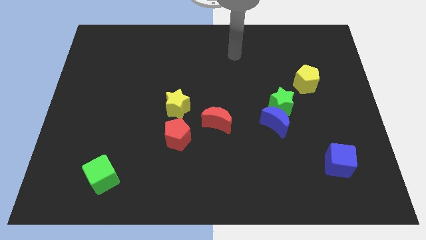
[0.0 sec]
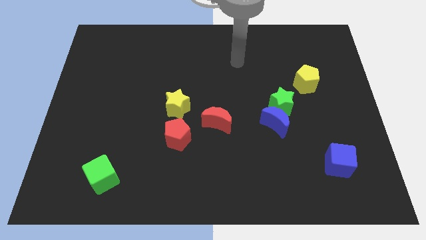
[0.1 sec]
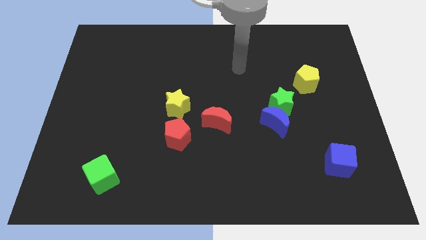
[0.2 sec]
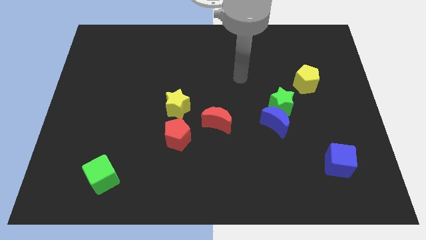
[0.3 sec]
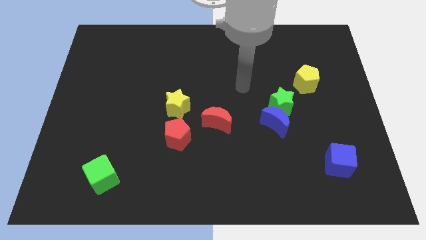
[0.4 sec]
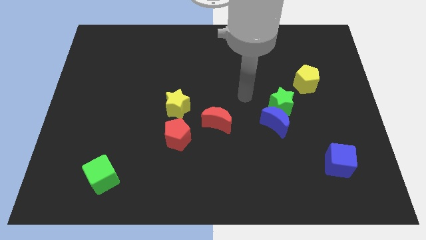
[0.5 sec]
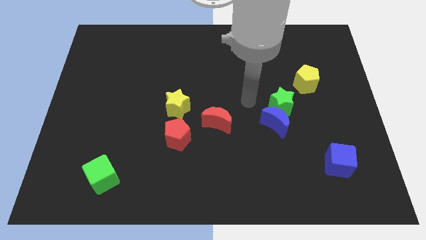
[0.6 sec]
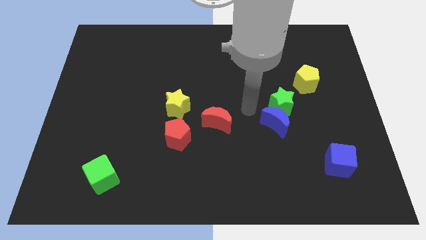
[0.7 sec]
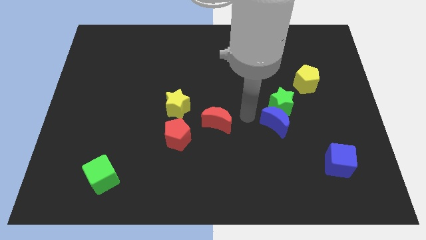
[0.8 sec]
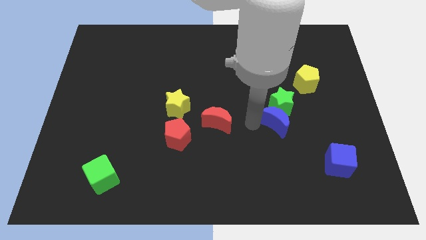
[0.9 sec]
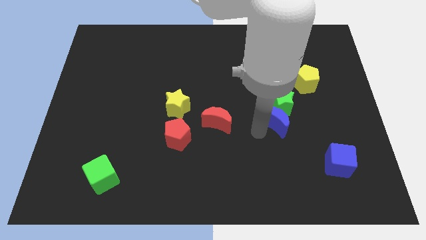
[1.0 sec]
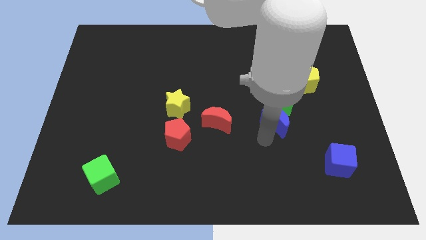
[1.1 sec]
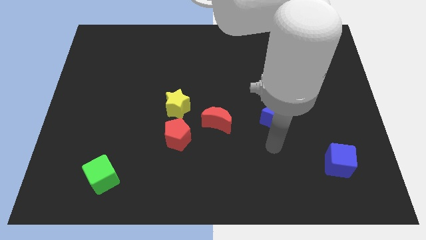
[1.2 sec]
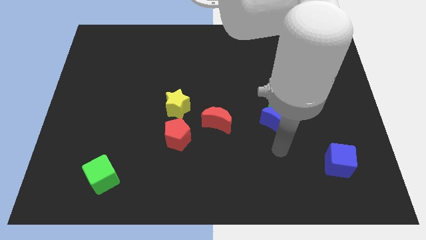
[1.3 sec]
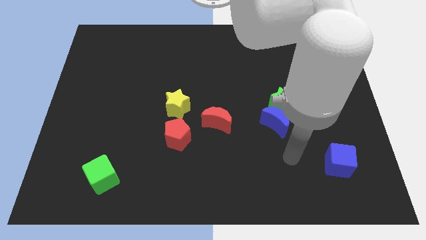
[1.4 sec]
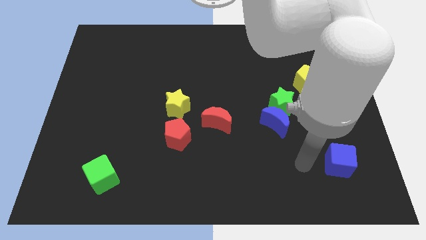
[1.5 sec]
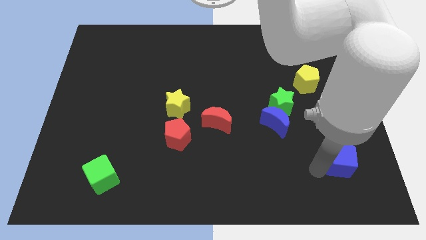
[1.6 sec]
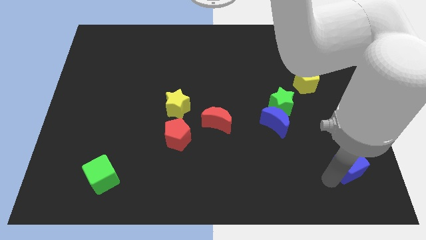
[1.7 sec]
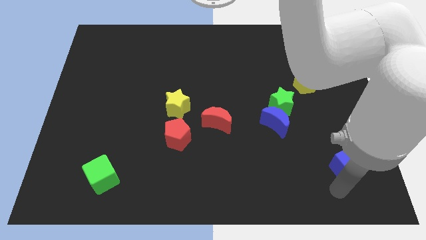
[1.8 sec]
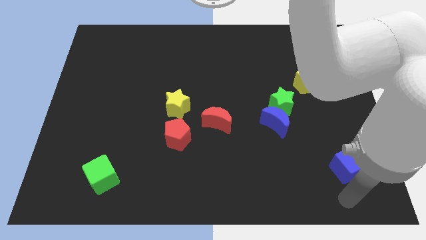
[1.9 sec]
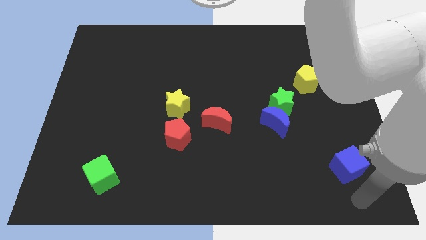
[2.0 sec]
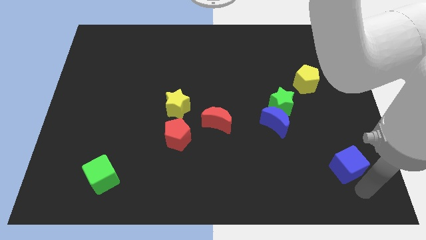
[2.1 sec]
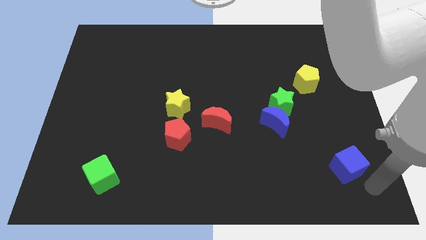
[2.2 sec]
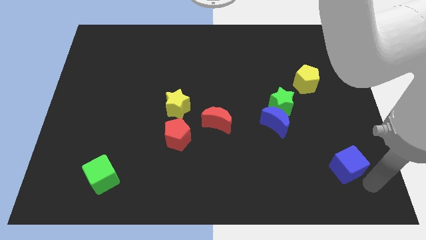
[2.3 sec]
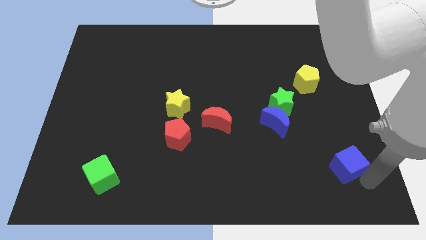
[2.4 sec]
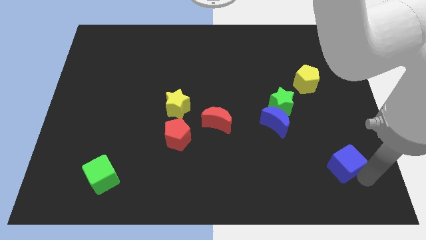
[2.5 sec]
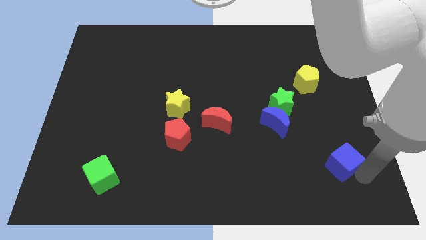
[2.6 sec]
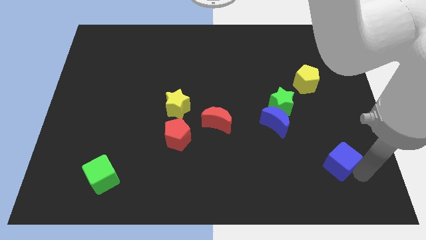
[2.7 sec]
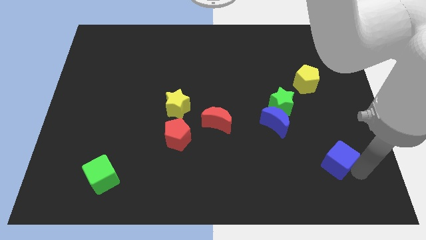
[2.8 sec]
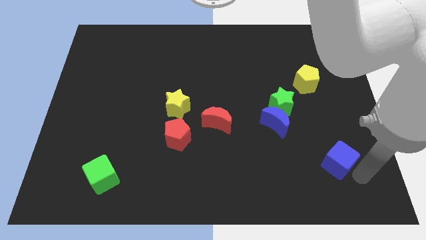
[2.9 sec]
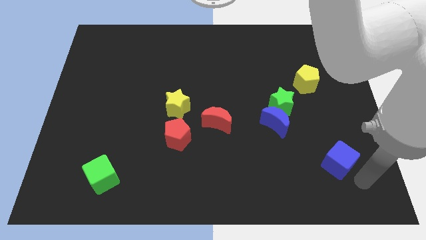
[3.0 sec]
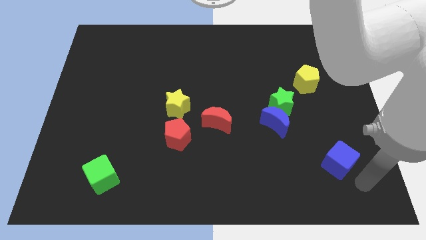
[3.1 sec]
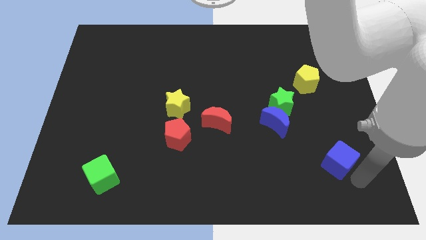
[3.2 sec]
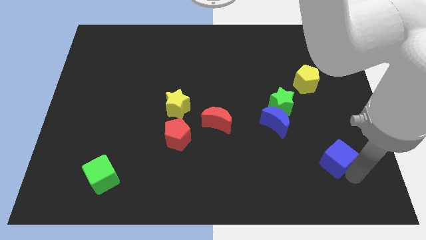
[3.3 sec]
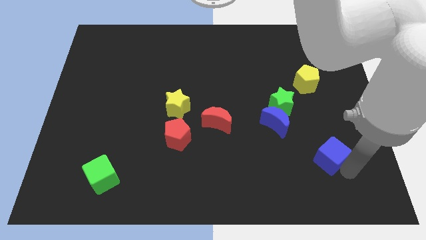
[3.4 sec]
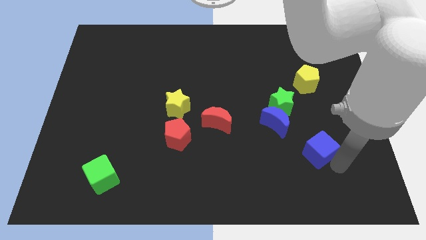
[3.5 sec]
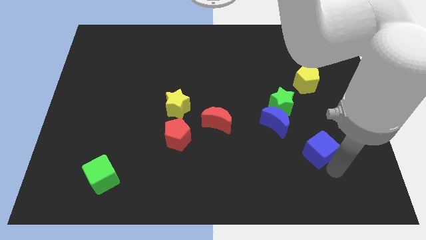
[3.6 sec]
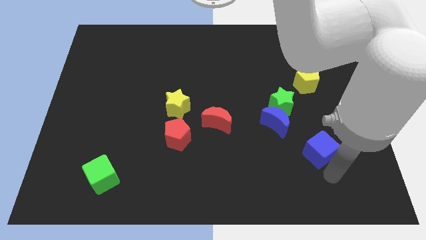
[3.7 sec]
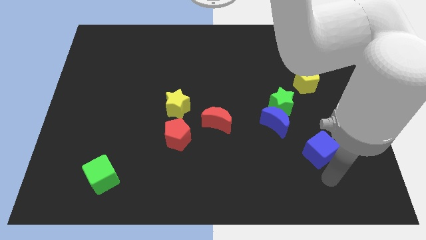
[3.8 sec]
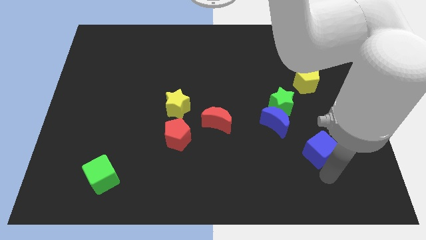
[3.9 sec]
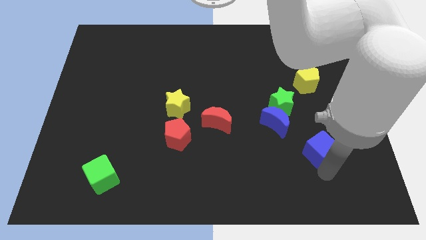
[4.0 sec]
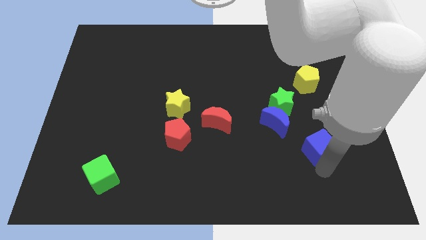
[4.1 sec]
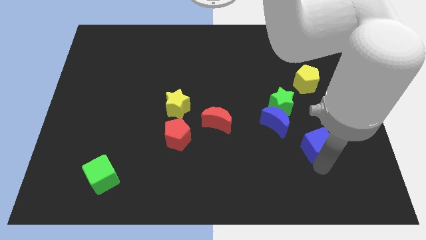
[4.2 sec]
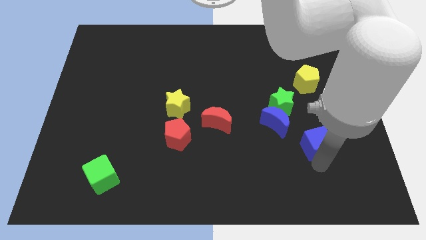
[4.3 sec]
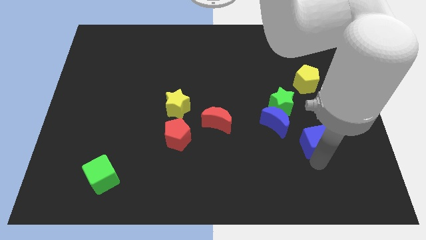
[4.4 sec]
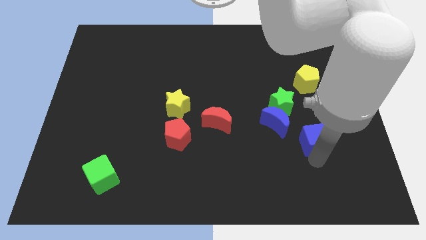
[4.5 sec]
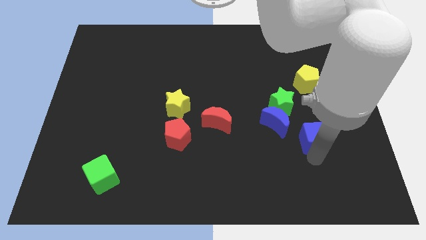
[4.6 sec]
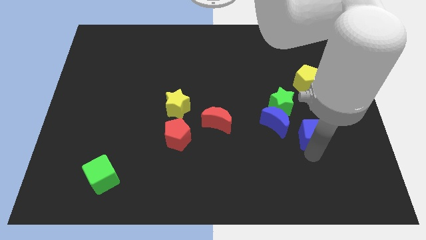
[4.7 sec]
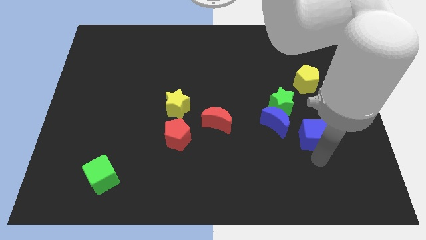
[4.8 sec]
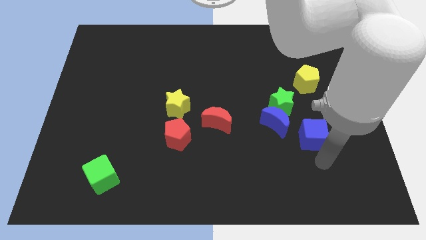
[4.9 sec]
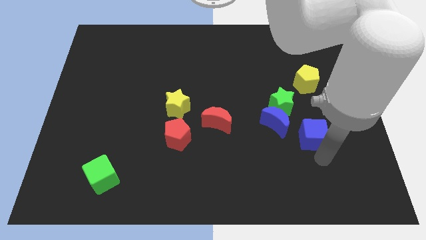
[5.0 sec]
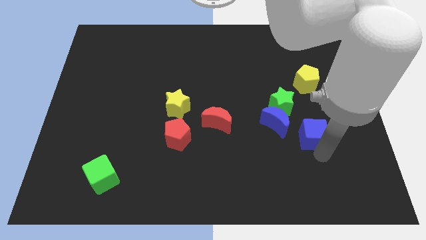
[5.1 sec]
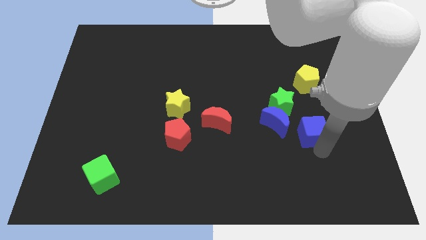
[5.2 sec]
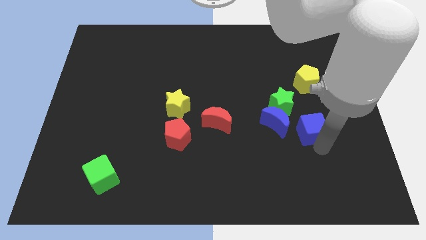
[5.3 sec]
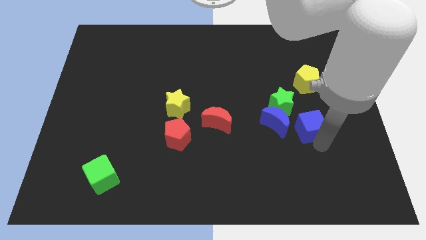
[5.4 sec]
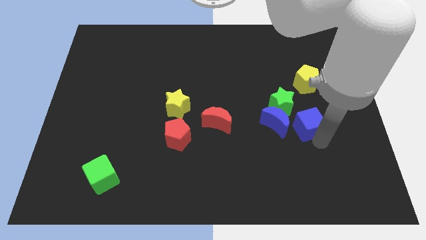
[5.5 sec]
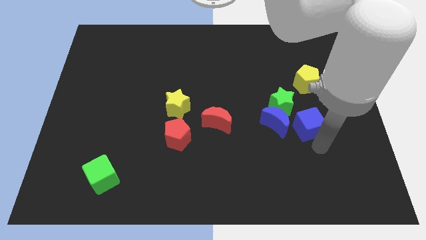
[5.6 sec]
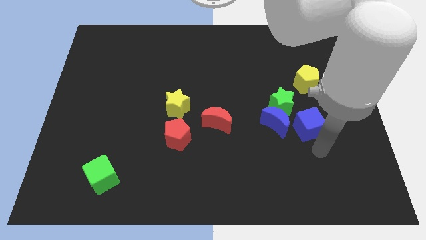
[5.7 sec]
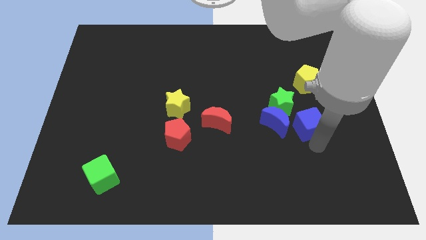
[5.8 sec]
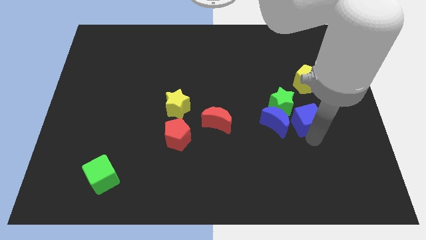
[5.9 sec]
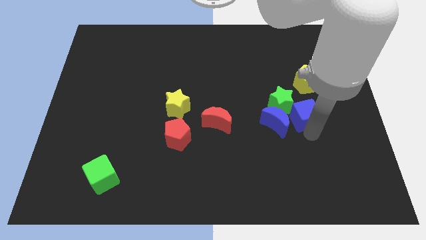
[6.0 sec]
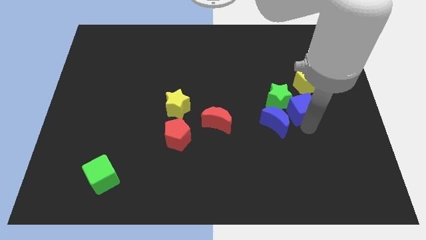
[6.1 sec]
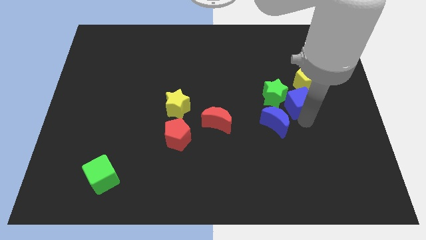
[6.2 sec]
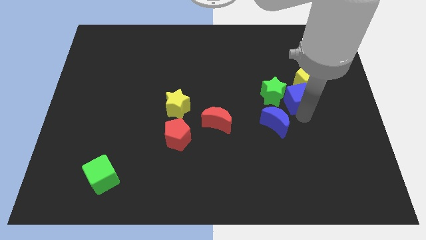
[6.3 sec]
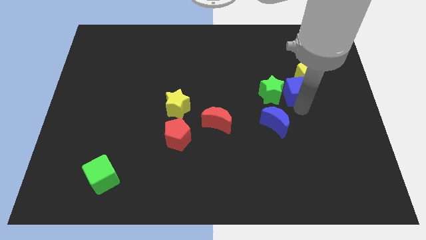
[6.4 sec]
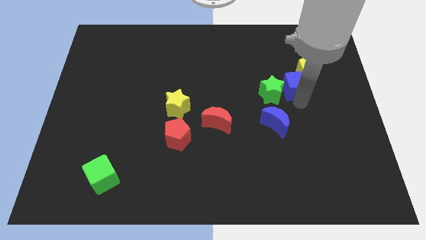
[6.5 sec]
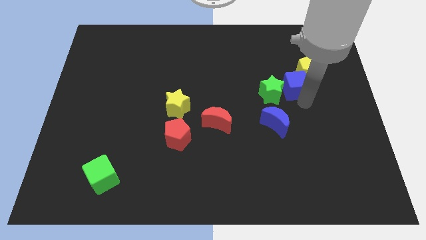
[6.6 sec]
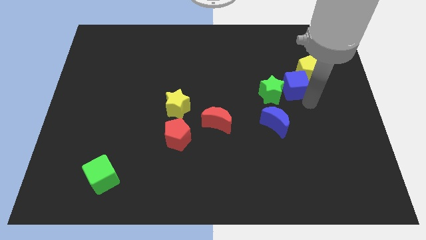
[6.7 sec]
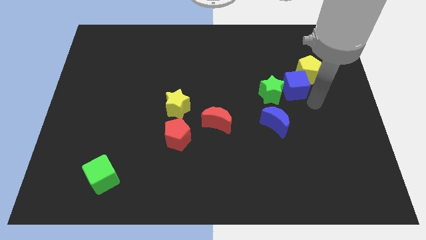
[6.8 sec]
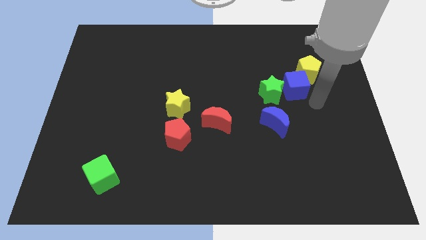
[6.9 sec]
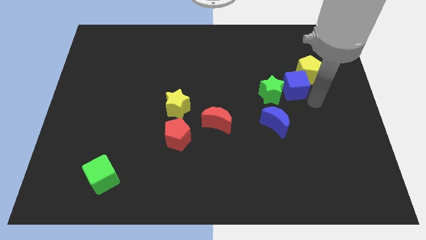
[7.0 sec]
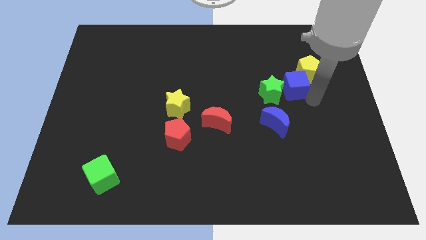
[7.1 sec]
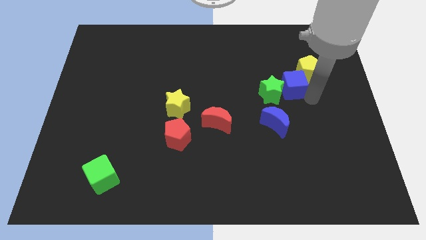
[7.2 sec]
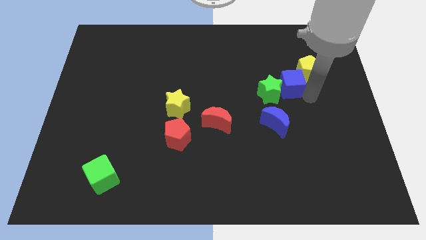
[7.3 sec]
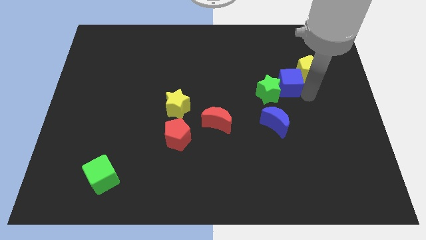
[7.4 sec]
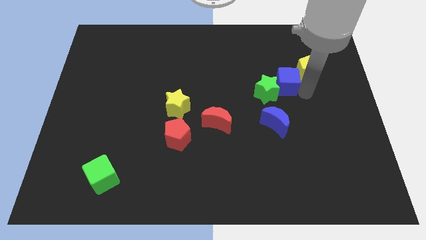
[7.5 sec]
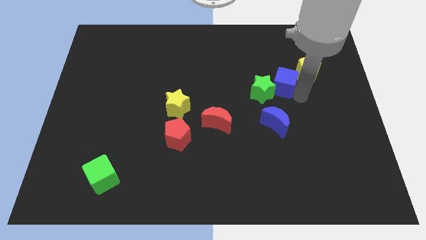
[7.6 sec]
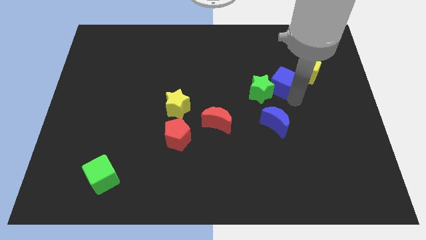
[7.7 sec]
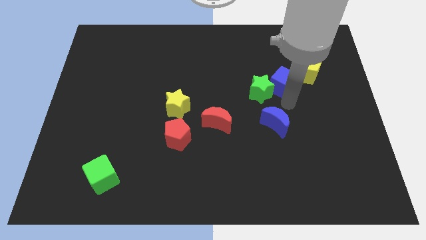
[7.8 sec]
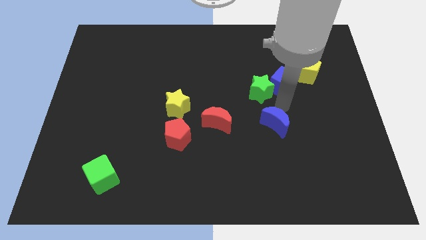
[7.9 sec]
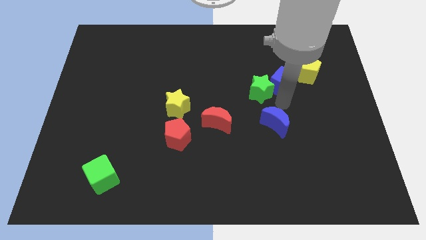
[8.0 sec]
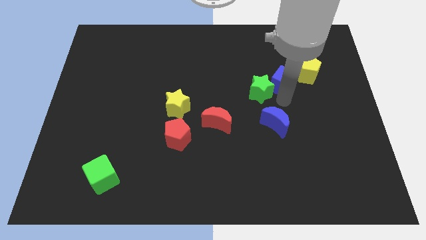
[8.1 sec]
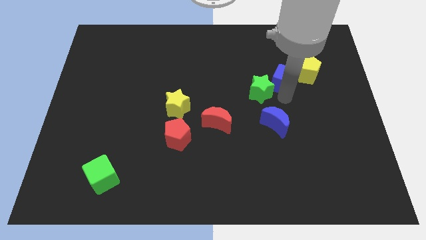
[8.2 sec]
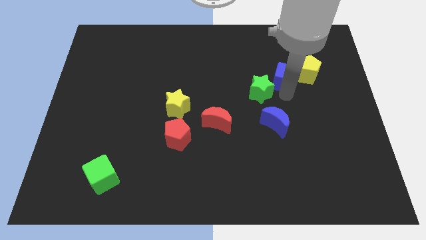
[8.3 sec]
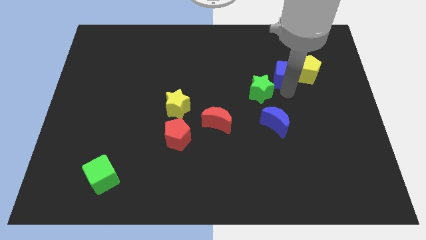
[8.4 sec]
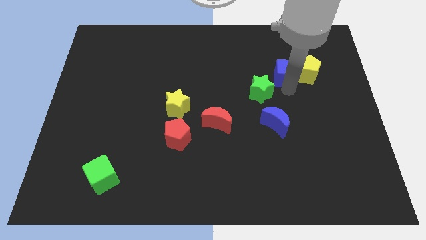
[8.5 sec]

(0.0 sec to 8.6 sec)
slide the blue cube diagonally up and to the left of the yellow pentagon
